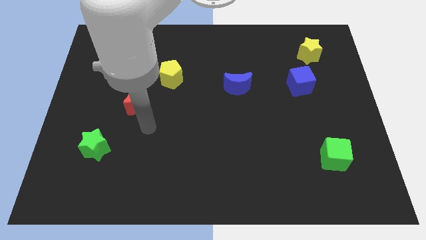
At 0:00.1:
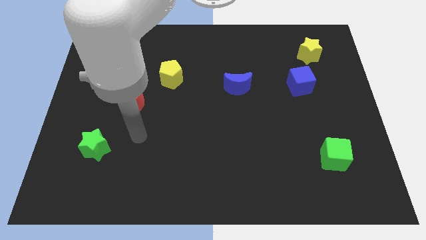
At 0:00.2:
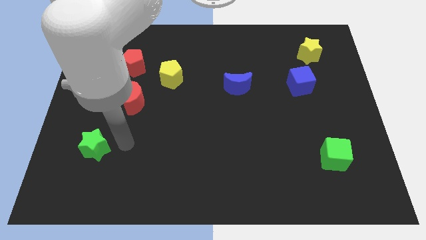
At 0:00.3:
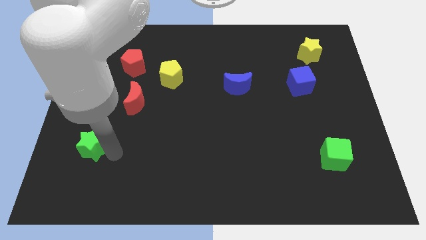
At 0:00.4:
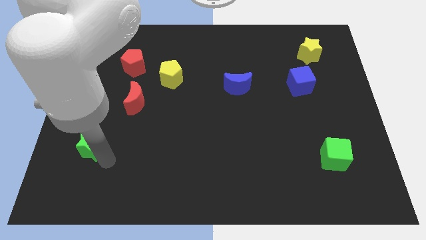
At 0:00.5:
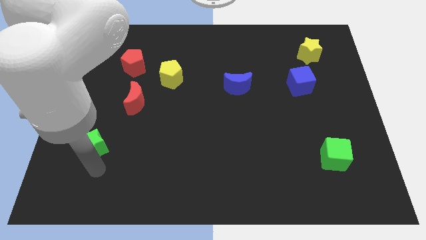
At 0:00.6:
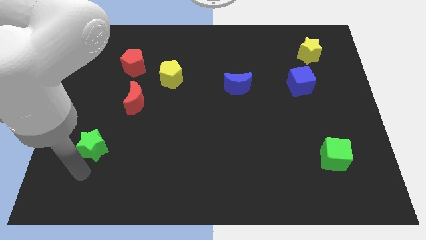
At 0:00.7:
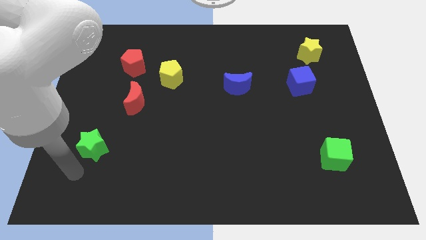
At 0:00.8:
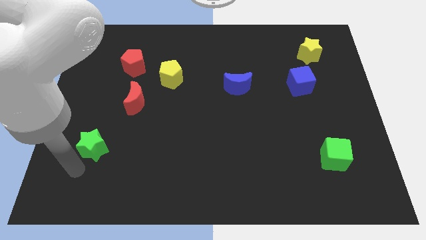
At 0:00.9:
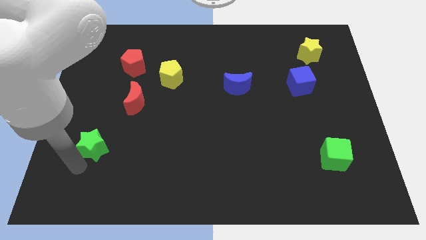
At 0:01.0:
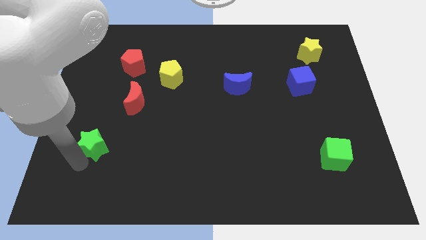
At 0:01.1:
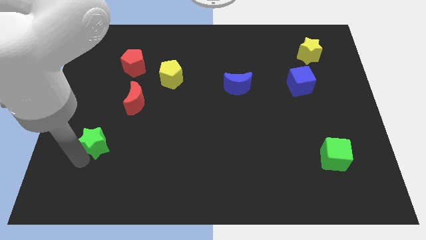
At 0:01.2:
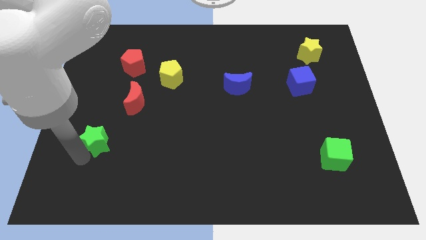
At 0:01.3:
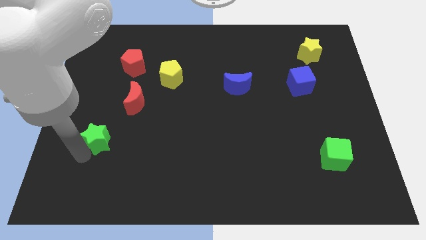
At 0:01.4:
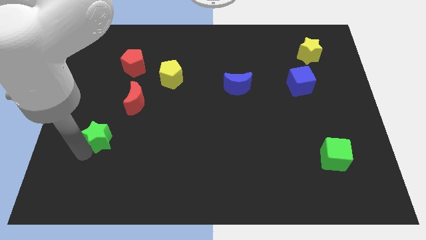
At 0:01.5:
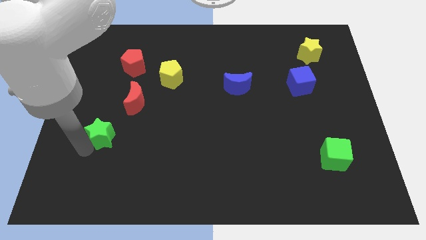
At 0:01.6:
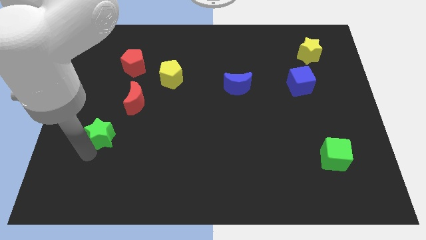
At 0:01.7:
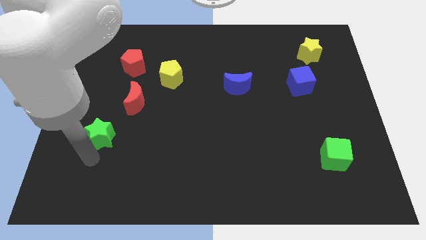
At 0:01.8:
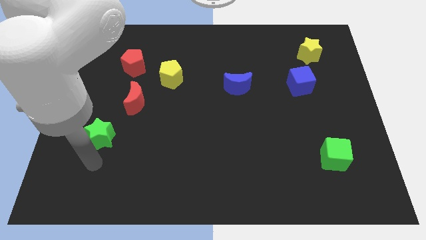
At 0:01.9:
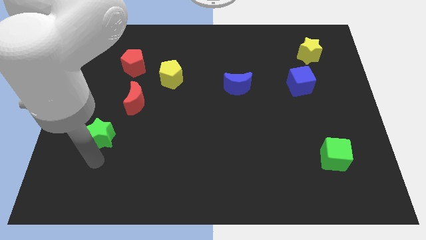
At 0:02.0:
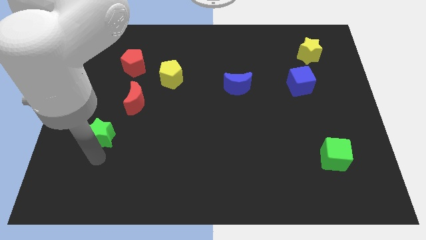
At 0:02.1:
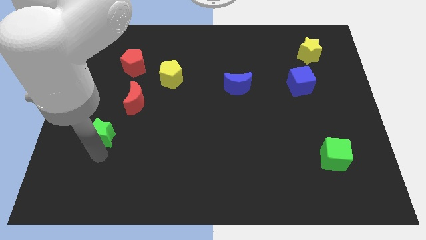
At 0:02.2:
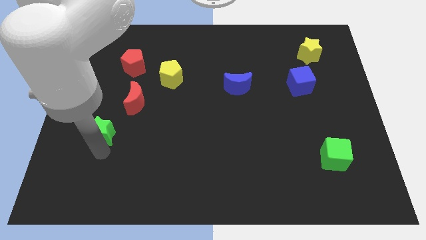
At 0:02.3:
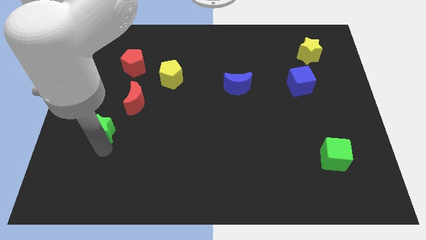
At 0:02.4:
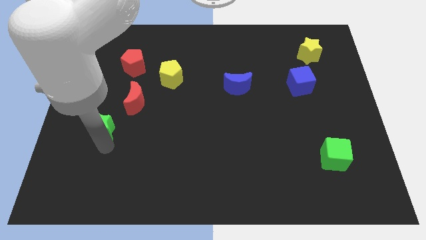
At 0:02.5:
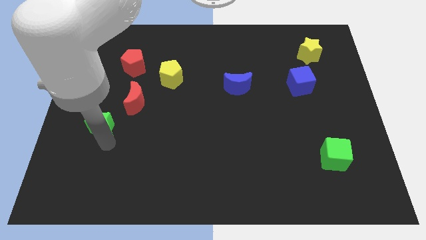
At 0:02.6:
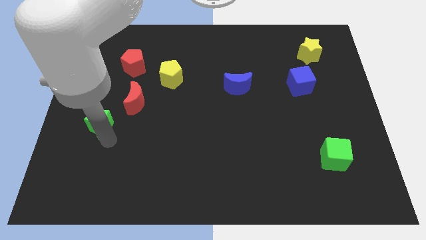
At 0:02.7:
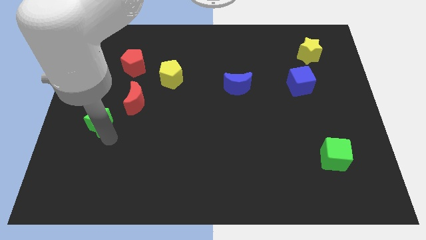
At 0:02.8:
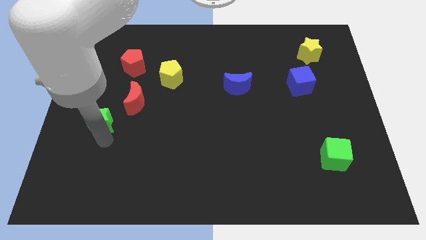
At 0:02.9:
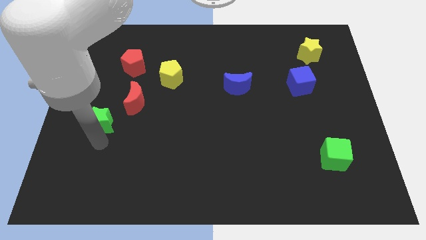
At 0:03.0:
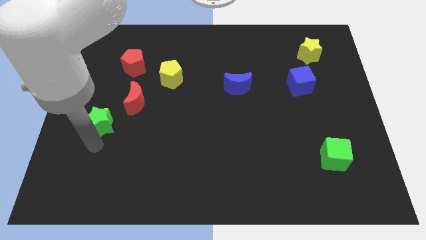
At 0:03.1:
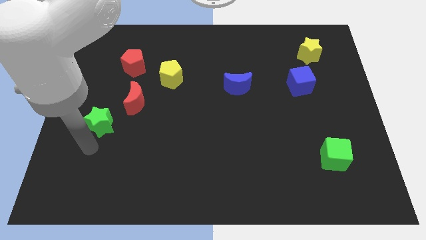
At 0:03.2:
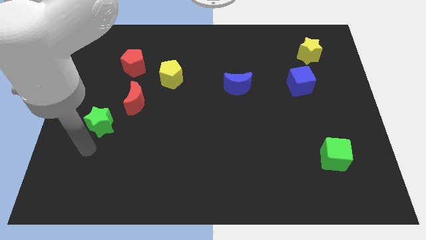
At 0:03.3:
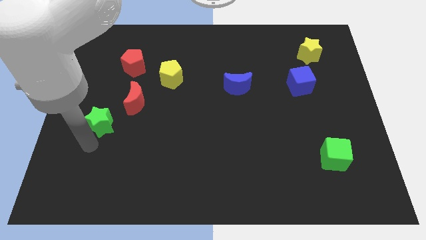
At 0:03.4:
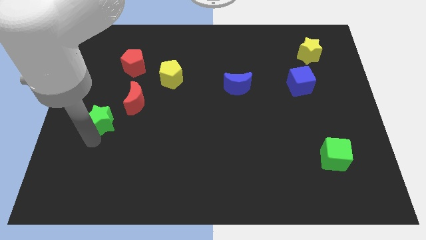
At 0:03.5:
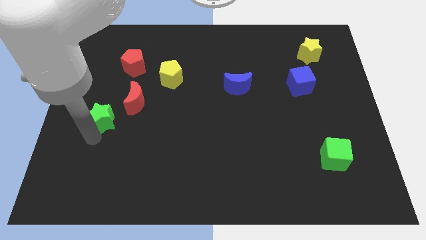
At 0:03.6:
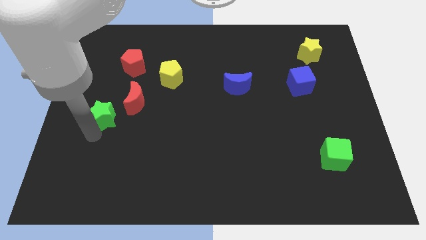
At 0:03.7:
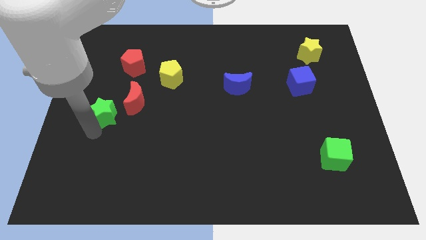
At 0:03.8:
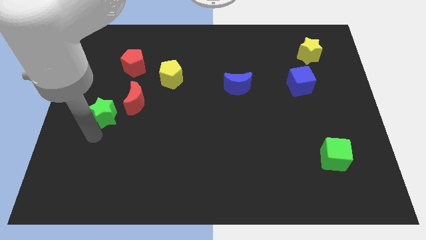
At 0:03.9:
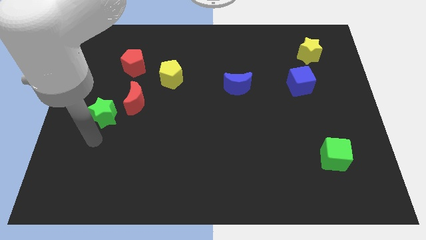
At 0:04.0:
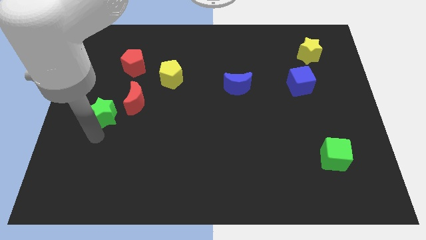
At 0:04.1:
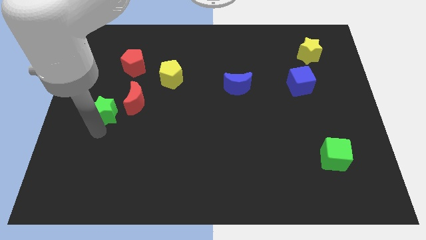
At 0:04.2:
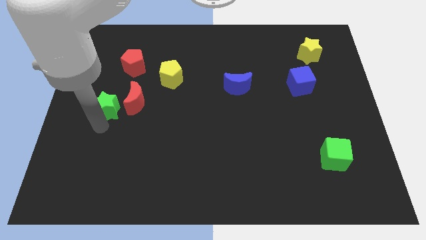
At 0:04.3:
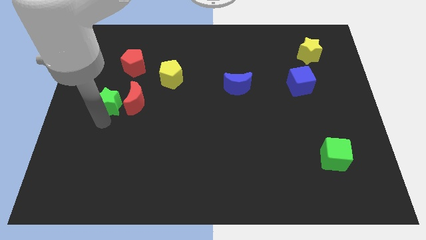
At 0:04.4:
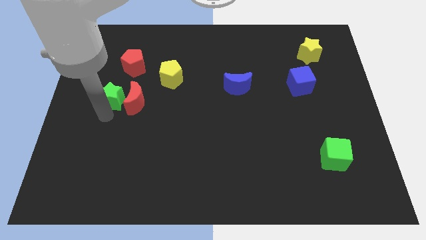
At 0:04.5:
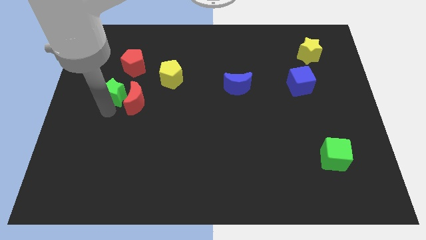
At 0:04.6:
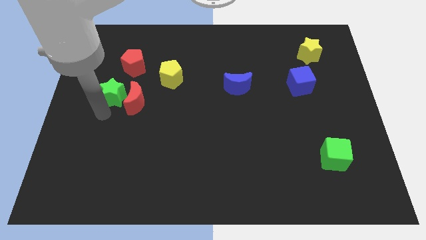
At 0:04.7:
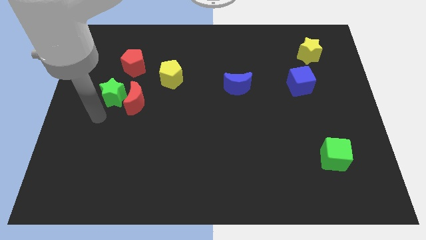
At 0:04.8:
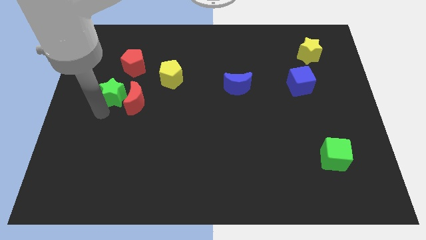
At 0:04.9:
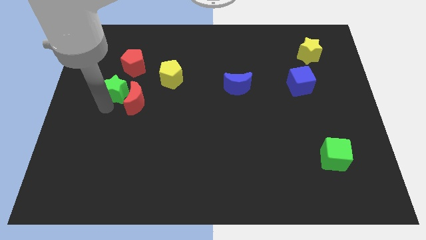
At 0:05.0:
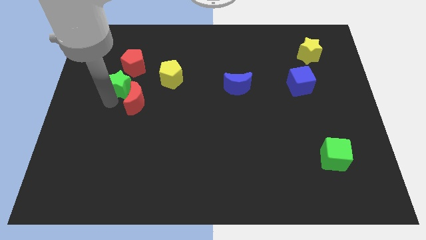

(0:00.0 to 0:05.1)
slide the green star to the left side of the yellow pentagon

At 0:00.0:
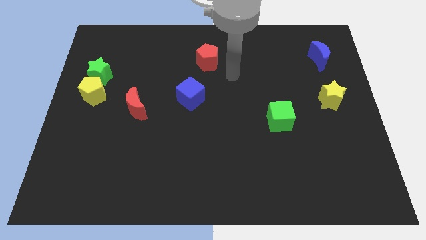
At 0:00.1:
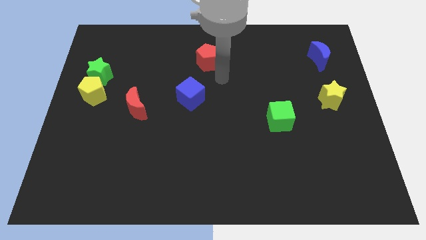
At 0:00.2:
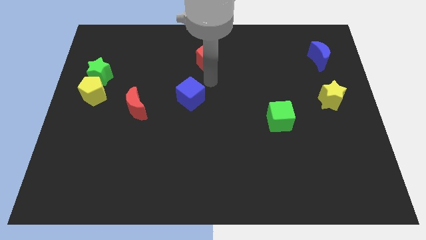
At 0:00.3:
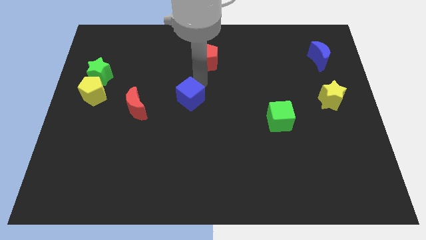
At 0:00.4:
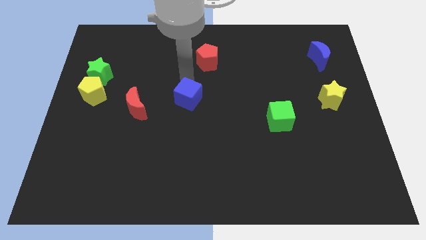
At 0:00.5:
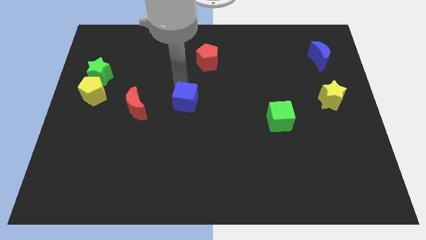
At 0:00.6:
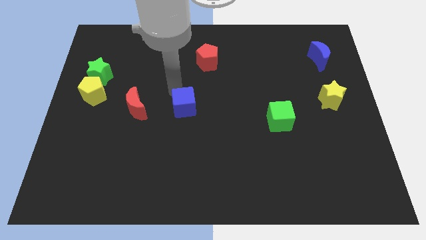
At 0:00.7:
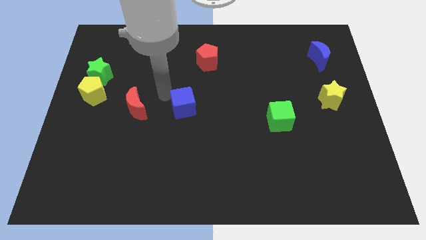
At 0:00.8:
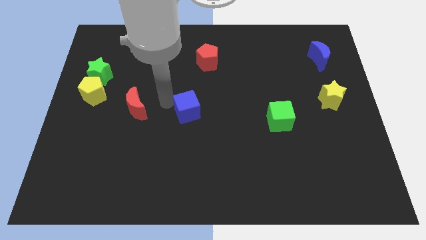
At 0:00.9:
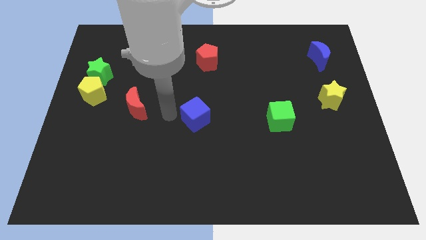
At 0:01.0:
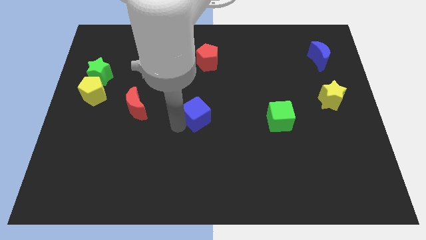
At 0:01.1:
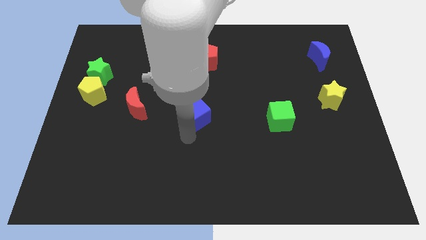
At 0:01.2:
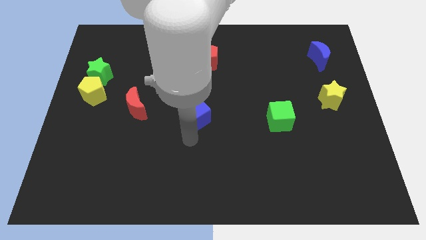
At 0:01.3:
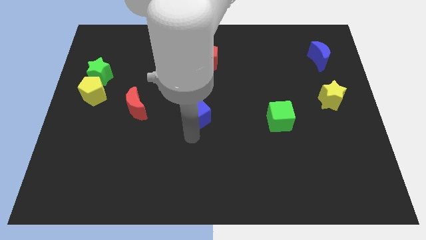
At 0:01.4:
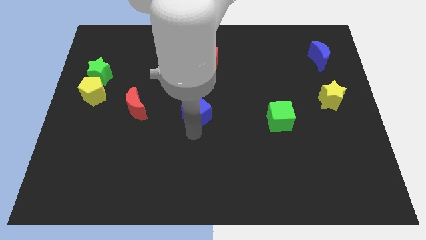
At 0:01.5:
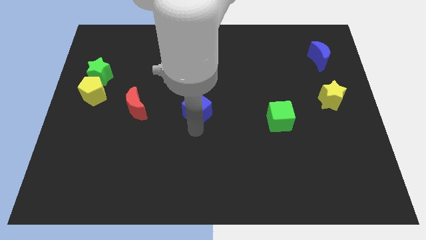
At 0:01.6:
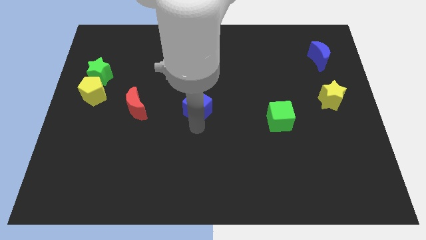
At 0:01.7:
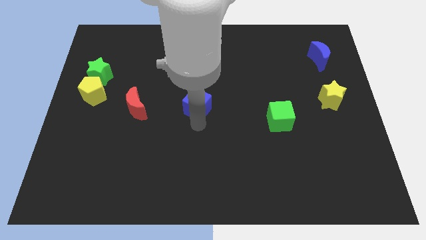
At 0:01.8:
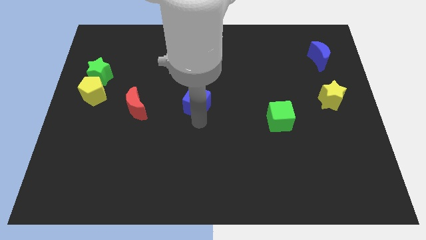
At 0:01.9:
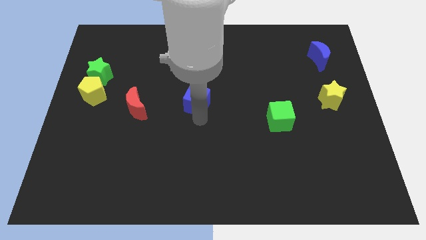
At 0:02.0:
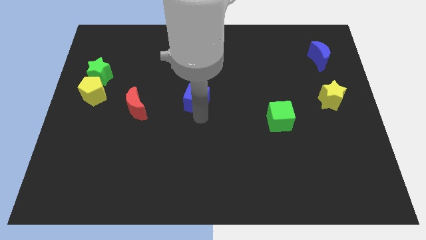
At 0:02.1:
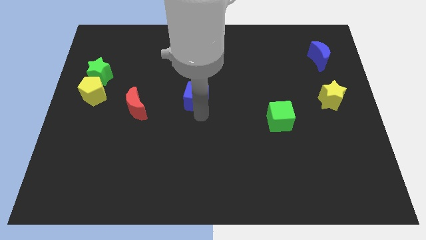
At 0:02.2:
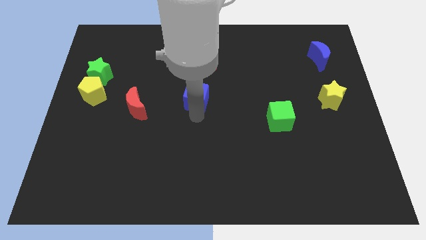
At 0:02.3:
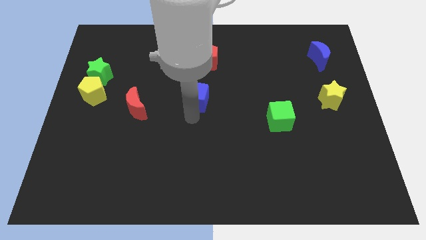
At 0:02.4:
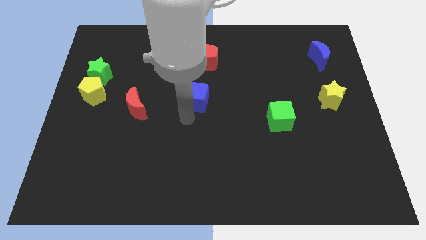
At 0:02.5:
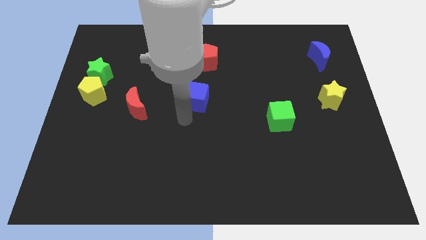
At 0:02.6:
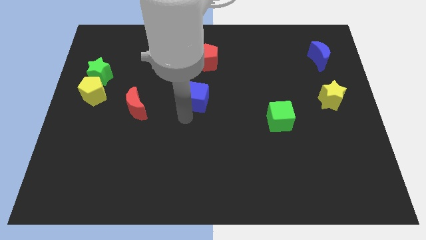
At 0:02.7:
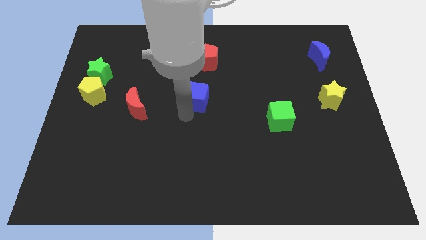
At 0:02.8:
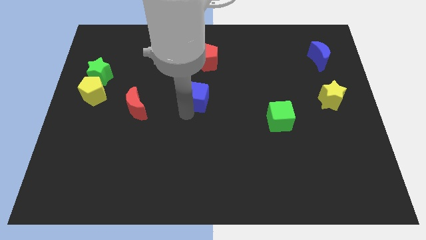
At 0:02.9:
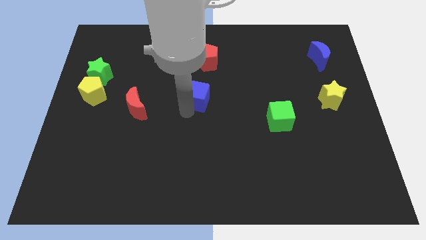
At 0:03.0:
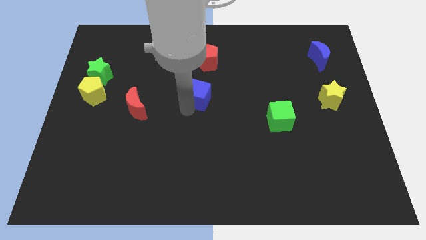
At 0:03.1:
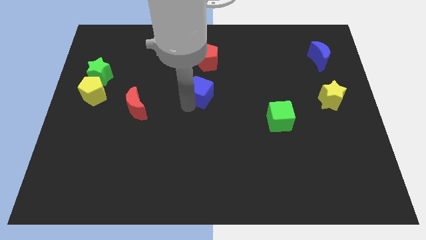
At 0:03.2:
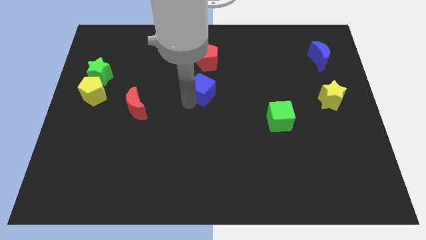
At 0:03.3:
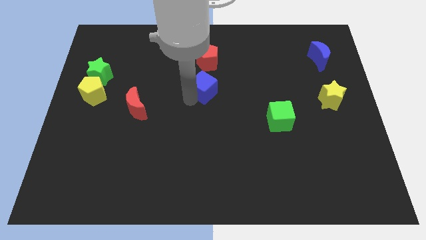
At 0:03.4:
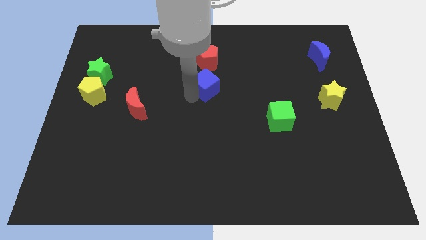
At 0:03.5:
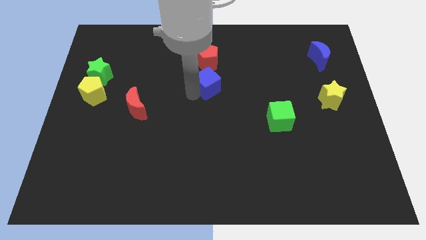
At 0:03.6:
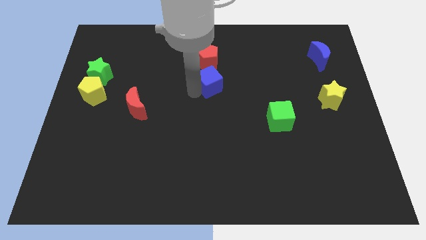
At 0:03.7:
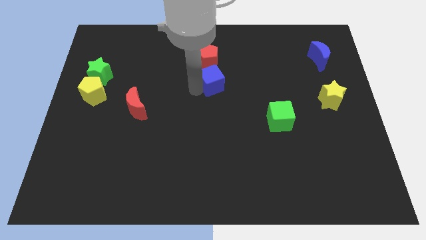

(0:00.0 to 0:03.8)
push the blue cube to the bottom right of the red pentagon
